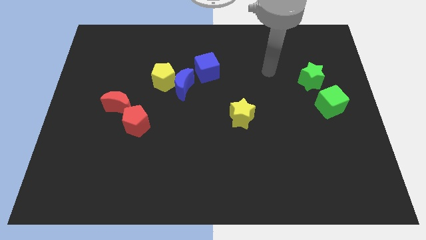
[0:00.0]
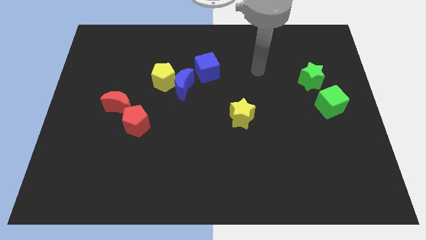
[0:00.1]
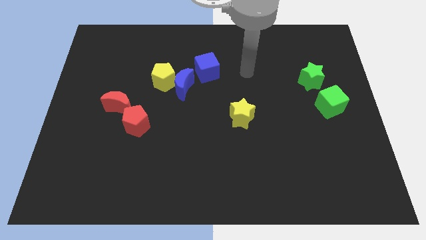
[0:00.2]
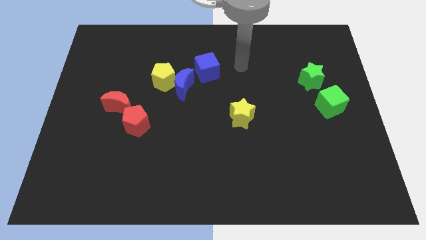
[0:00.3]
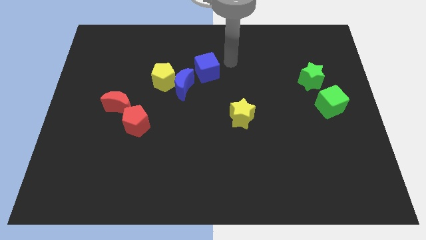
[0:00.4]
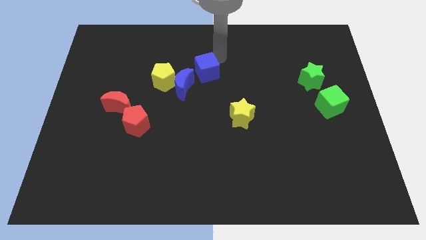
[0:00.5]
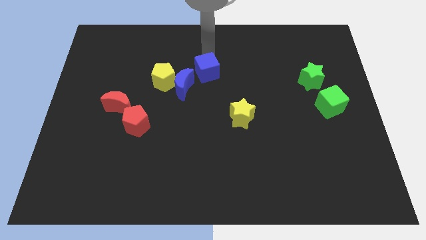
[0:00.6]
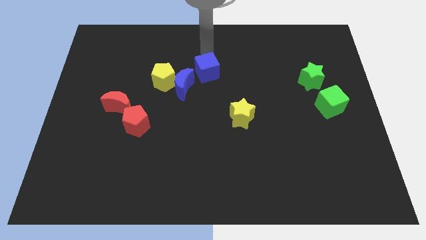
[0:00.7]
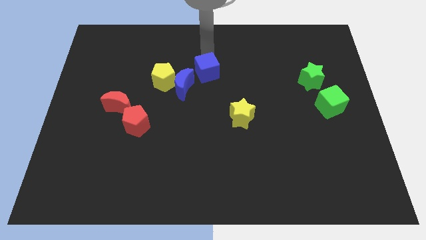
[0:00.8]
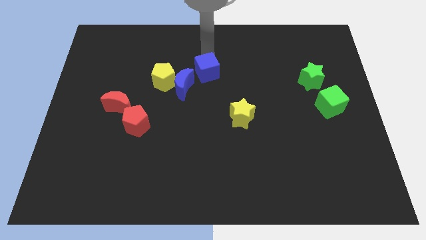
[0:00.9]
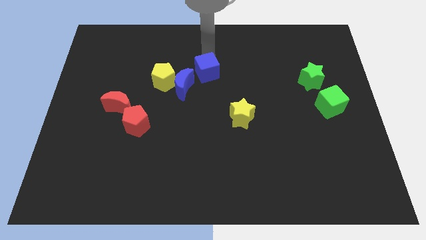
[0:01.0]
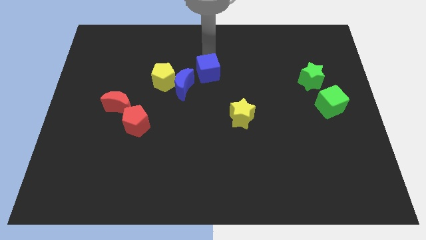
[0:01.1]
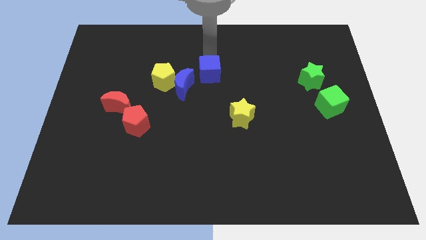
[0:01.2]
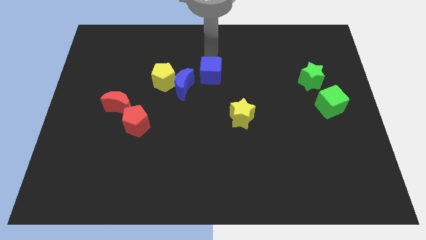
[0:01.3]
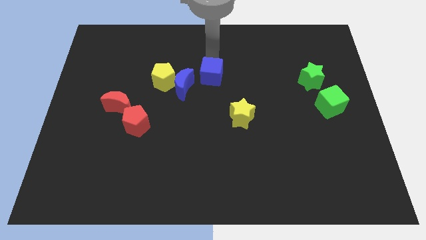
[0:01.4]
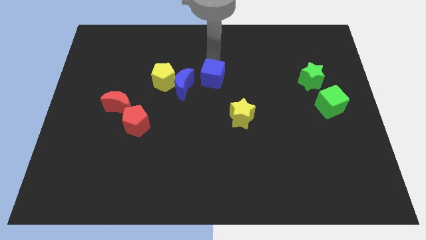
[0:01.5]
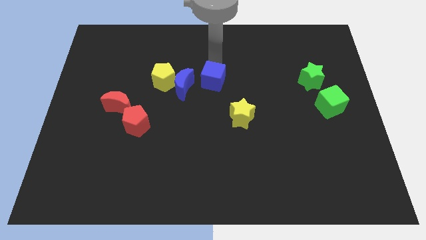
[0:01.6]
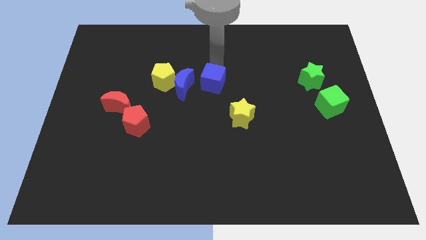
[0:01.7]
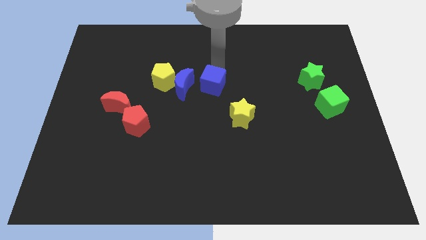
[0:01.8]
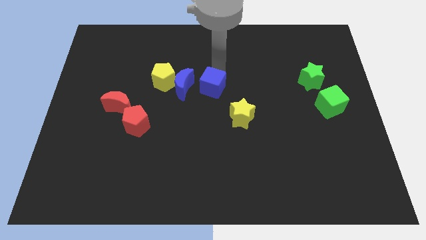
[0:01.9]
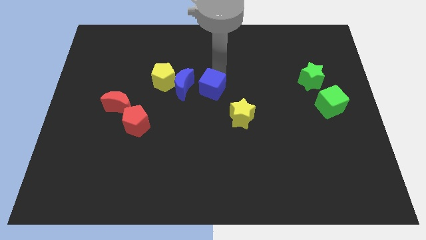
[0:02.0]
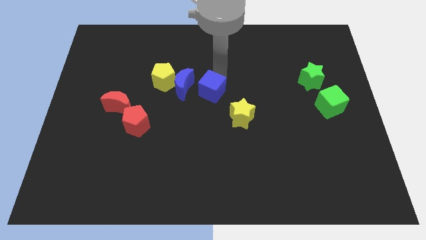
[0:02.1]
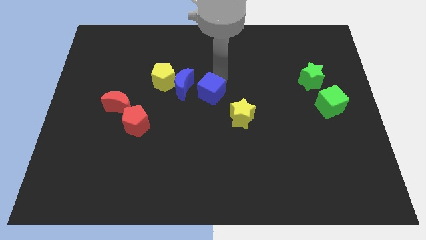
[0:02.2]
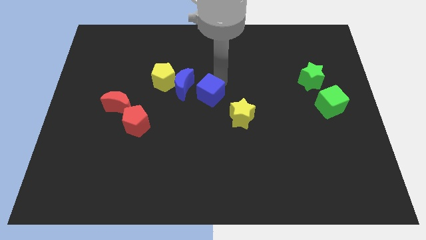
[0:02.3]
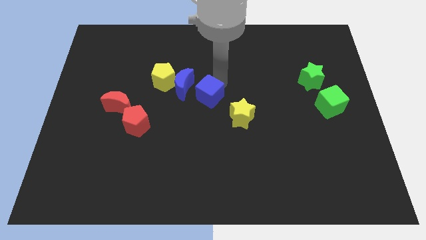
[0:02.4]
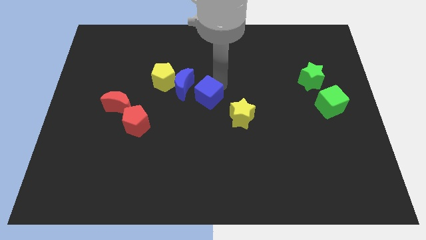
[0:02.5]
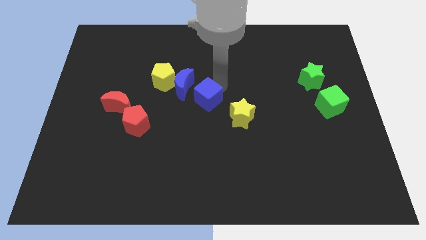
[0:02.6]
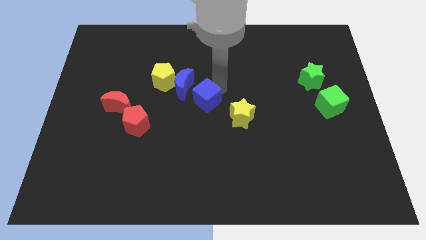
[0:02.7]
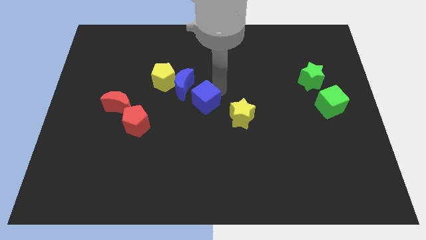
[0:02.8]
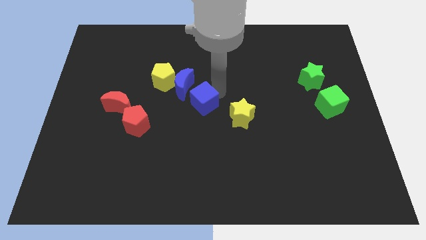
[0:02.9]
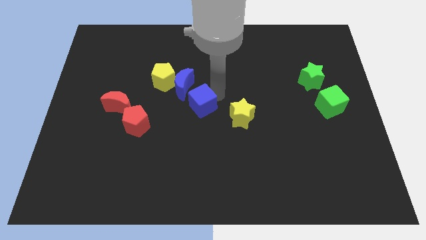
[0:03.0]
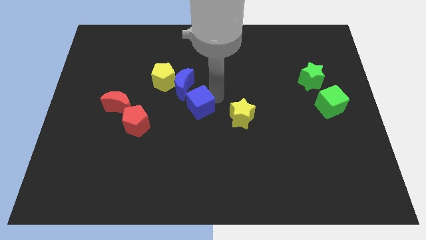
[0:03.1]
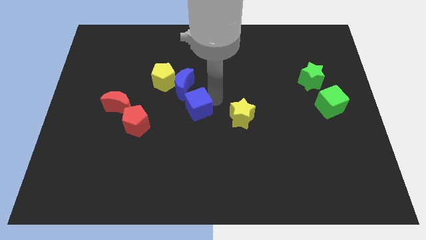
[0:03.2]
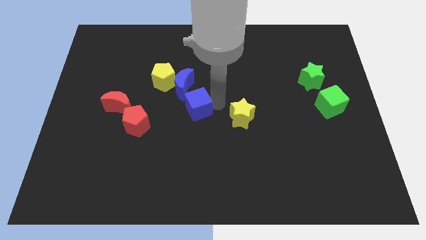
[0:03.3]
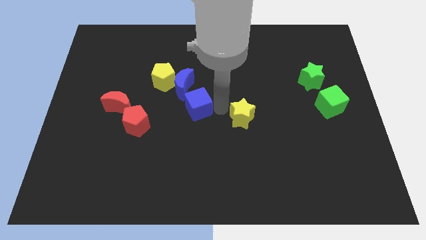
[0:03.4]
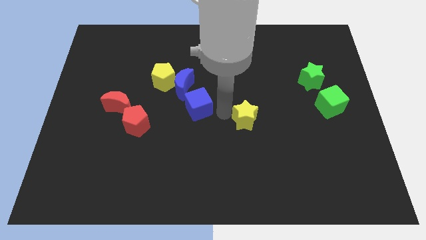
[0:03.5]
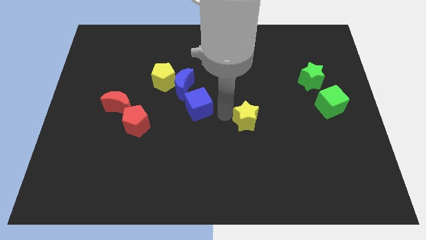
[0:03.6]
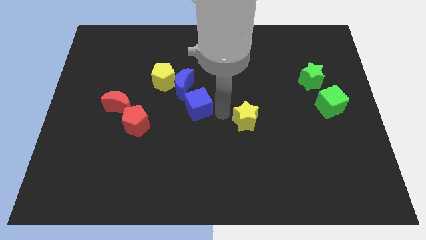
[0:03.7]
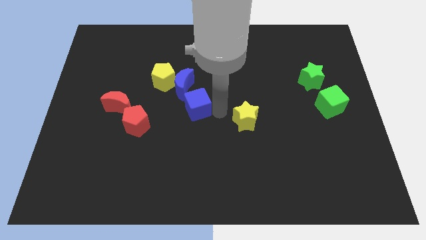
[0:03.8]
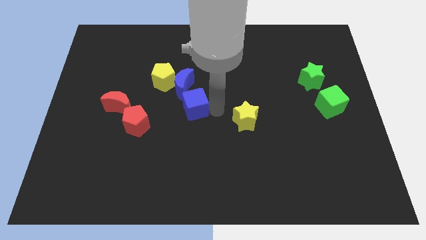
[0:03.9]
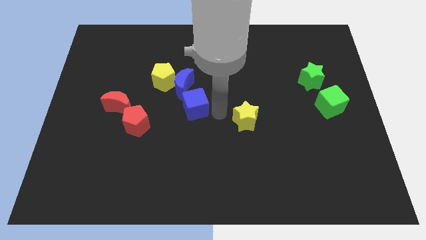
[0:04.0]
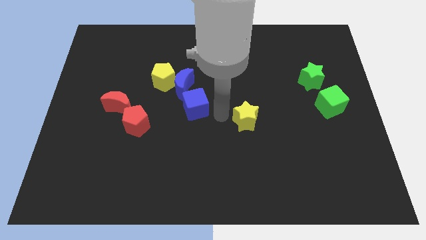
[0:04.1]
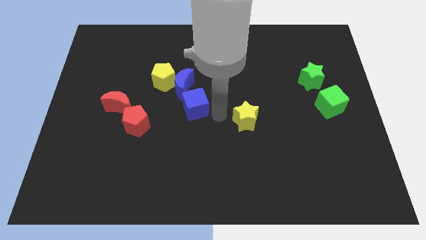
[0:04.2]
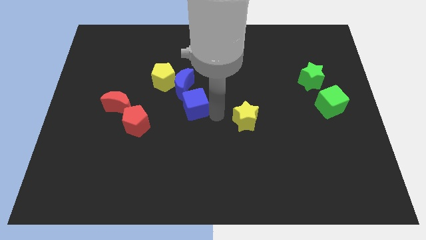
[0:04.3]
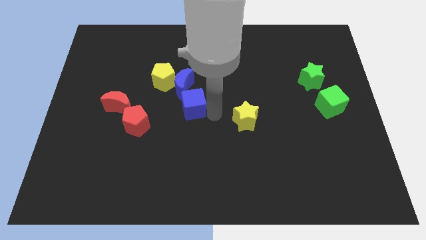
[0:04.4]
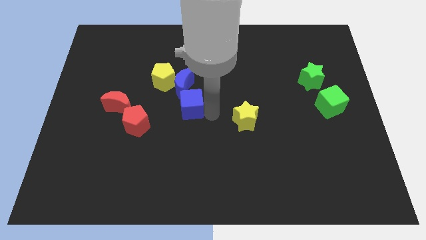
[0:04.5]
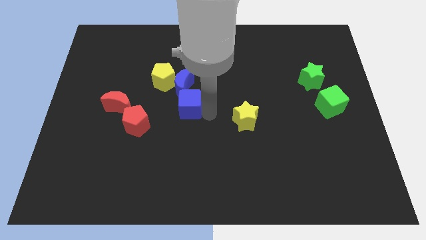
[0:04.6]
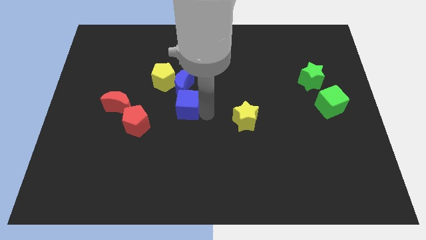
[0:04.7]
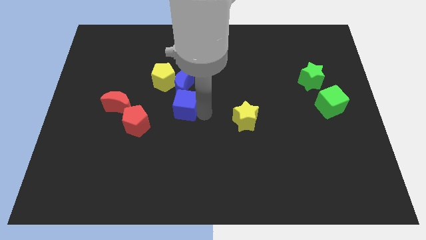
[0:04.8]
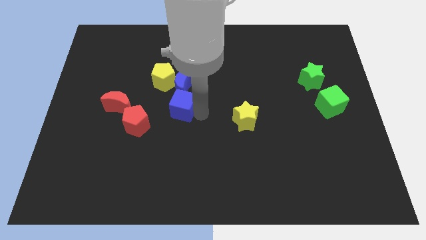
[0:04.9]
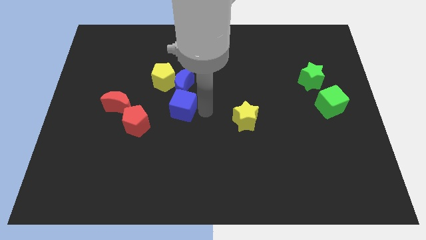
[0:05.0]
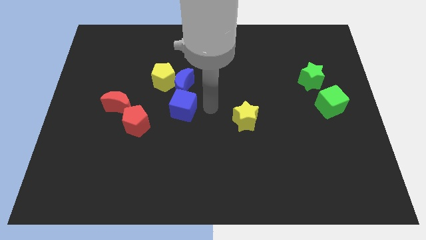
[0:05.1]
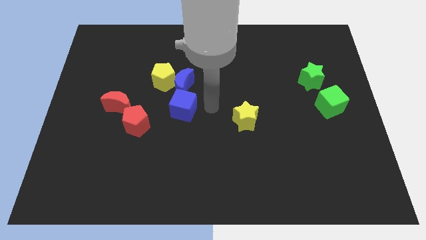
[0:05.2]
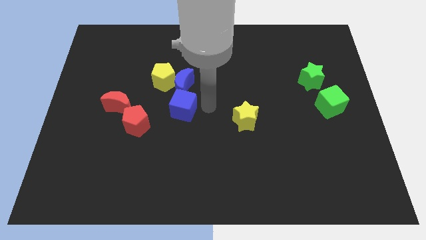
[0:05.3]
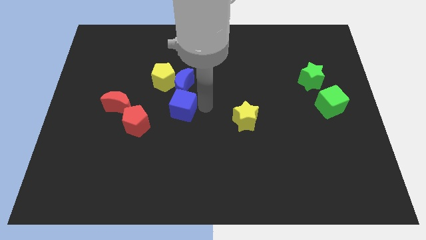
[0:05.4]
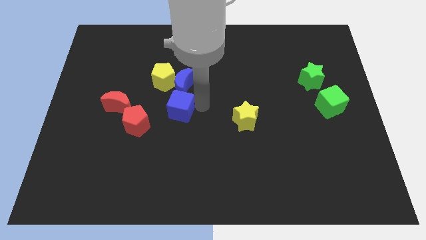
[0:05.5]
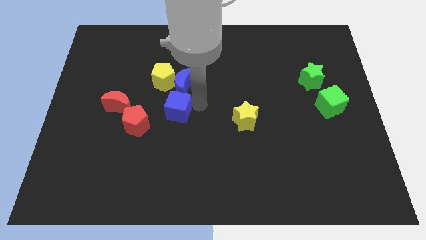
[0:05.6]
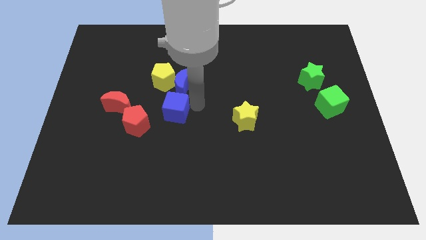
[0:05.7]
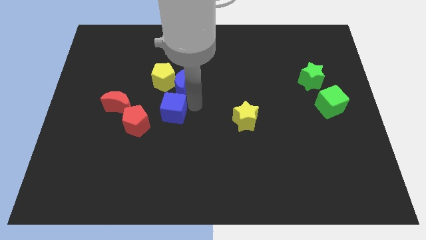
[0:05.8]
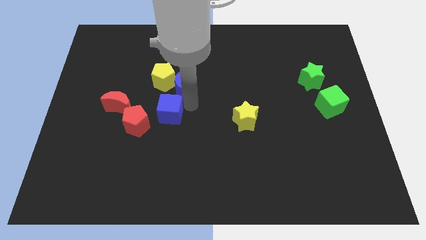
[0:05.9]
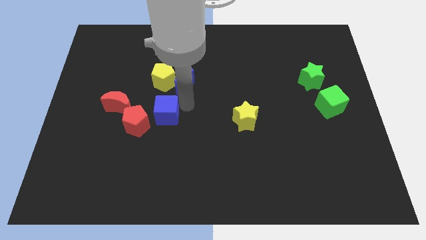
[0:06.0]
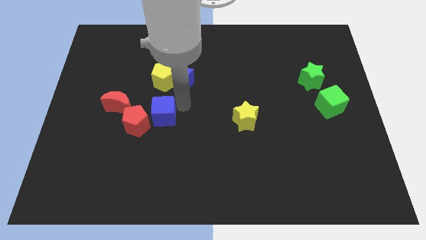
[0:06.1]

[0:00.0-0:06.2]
put the blue cube to the red pentagon
